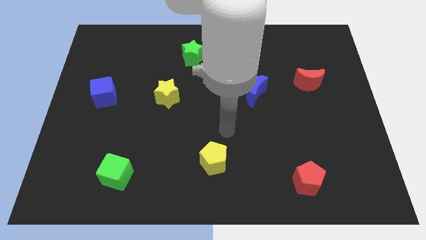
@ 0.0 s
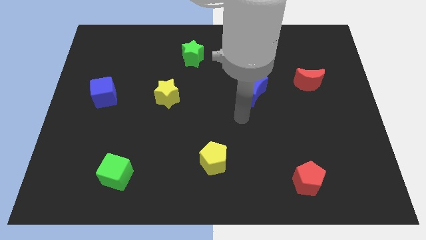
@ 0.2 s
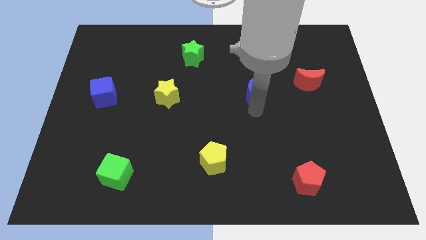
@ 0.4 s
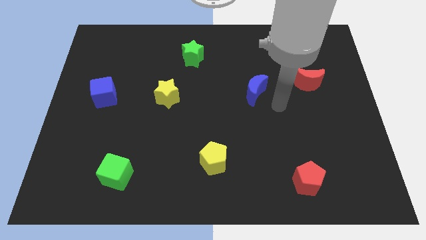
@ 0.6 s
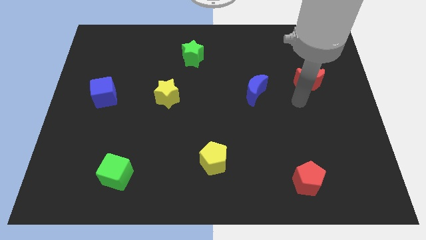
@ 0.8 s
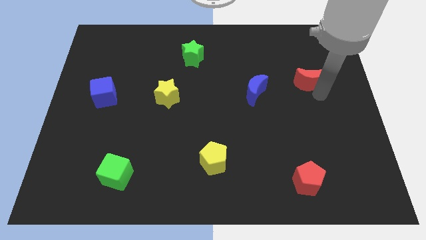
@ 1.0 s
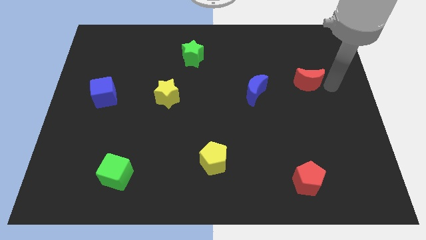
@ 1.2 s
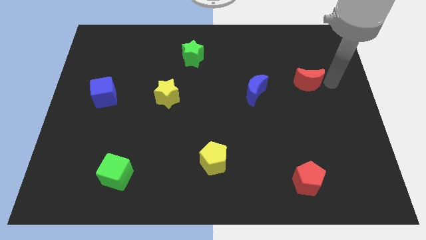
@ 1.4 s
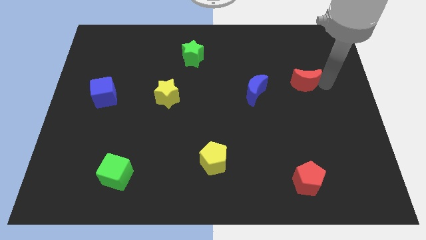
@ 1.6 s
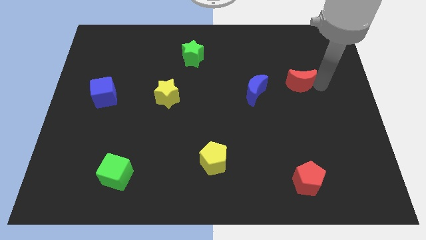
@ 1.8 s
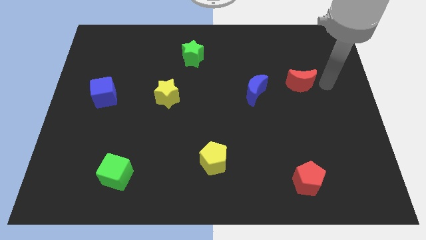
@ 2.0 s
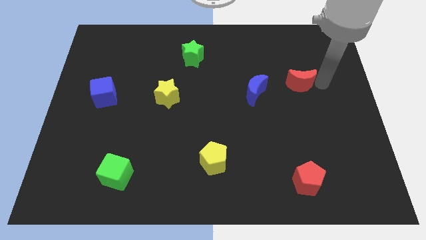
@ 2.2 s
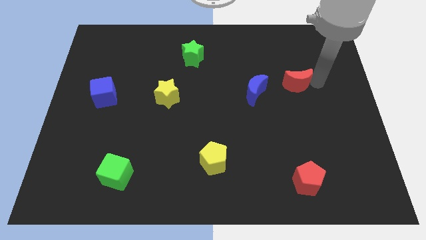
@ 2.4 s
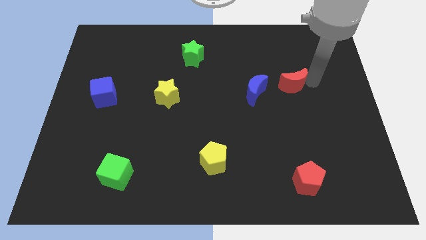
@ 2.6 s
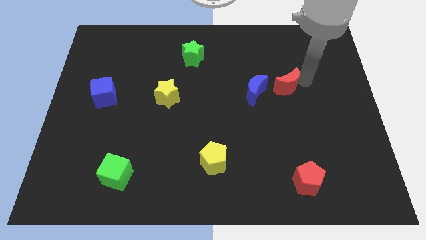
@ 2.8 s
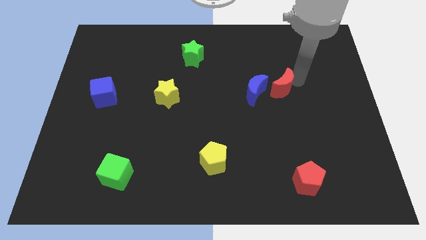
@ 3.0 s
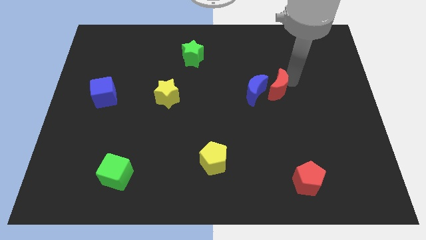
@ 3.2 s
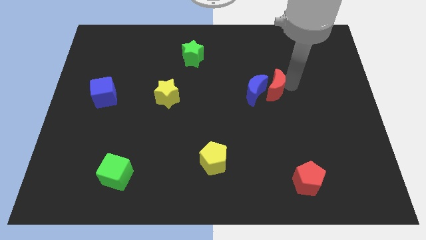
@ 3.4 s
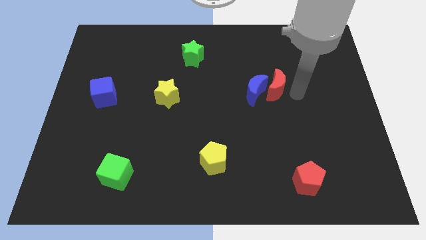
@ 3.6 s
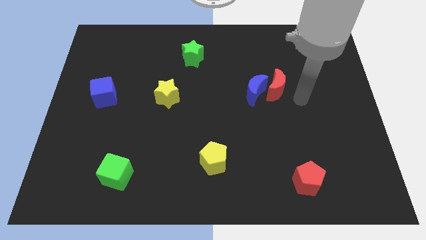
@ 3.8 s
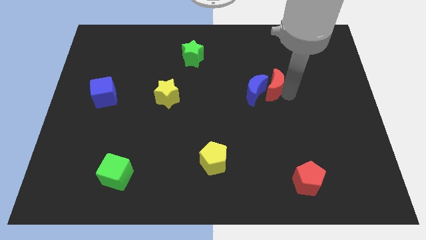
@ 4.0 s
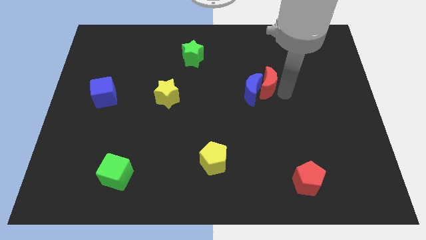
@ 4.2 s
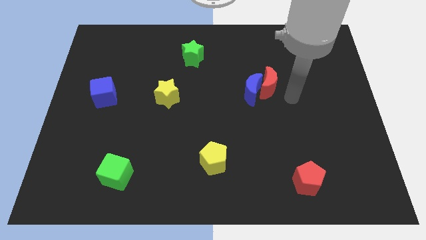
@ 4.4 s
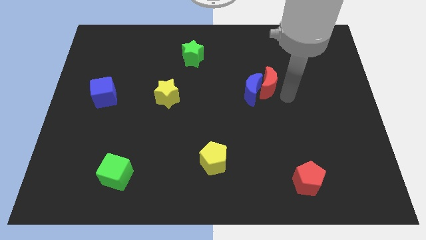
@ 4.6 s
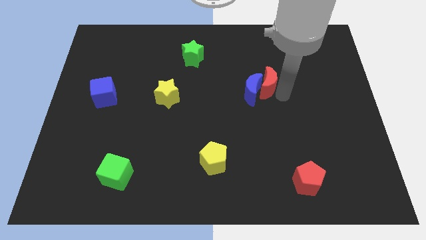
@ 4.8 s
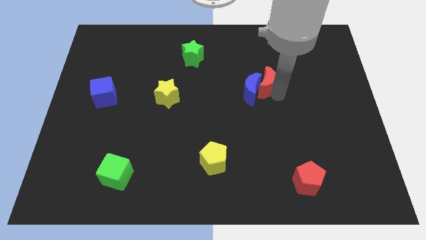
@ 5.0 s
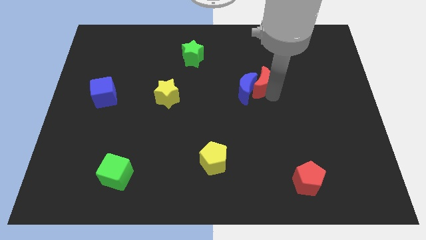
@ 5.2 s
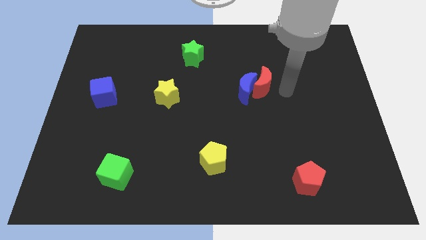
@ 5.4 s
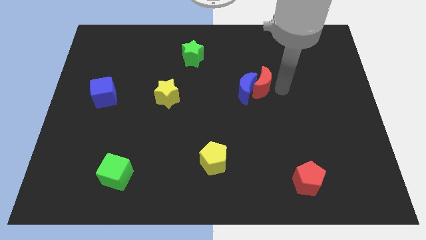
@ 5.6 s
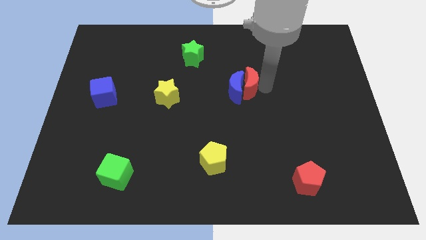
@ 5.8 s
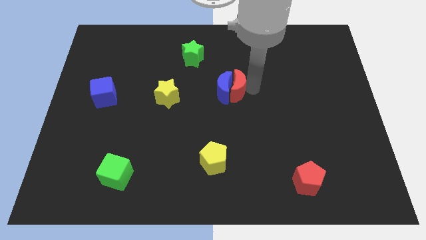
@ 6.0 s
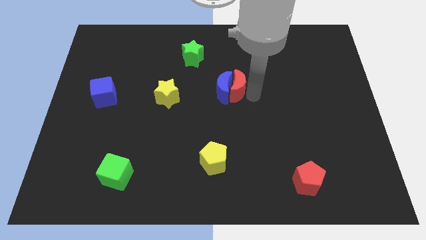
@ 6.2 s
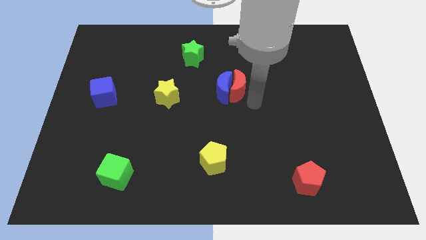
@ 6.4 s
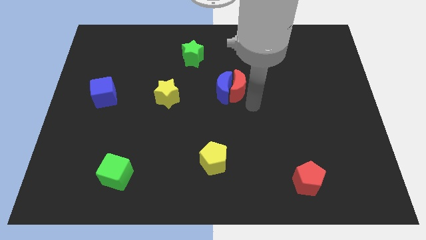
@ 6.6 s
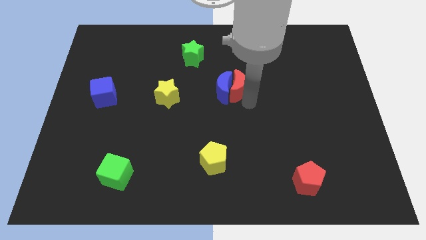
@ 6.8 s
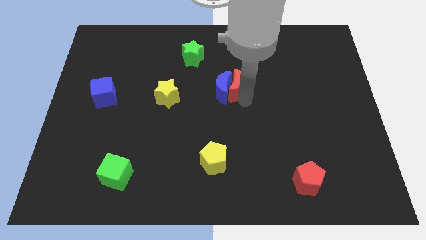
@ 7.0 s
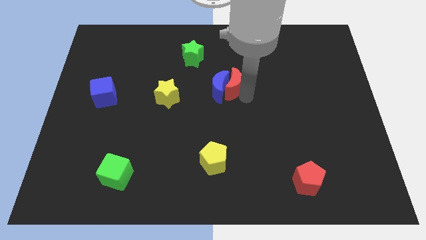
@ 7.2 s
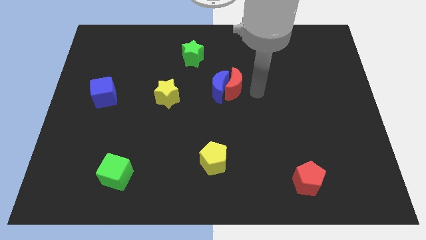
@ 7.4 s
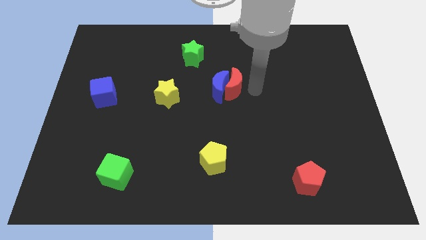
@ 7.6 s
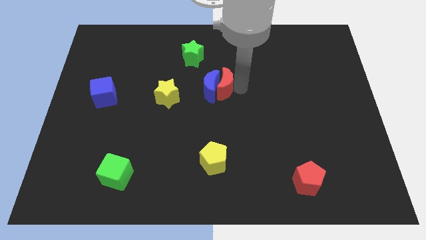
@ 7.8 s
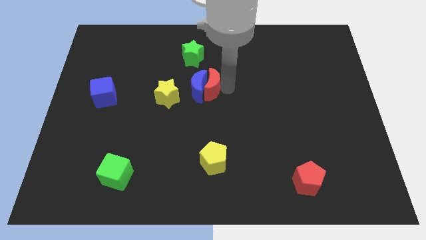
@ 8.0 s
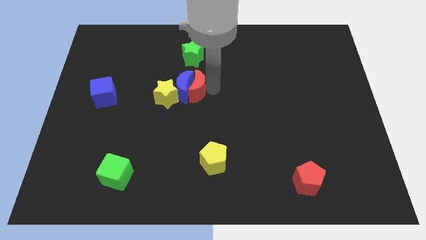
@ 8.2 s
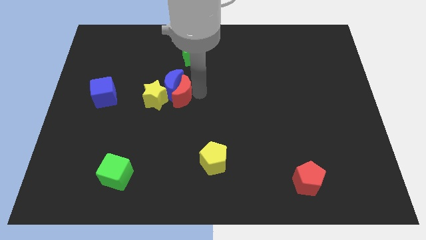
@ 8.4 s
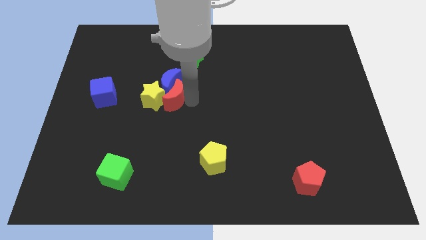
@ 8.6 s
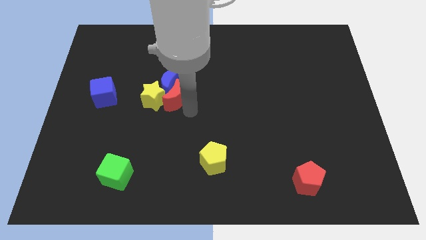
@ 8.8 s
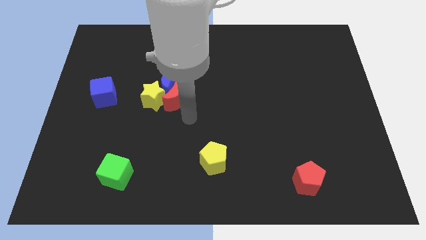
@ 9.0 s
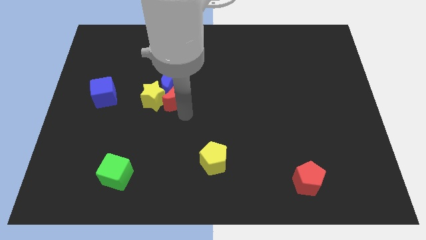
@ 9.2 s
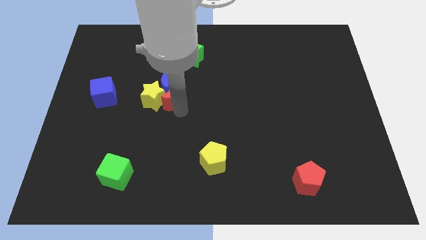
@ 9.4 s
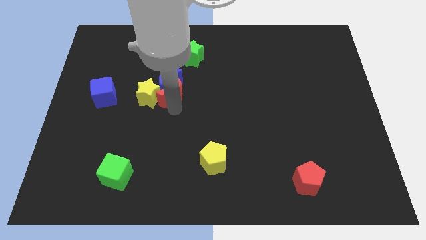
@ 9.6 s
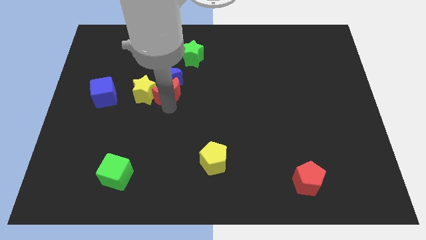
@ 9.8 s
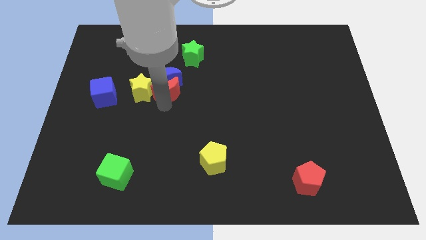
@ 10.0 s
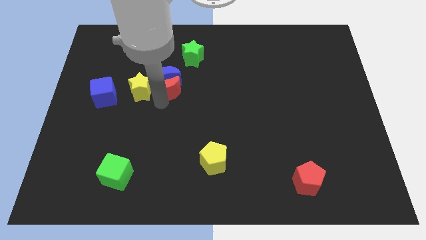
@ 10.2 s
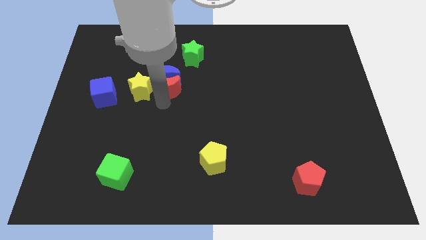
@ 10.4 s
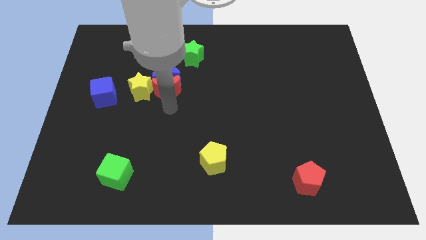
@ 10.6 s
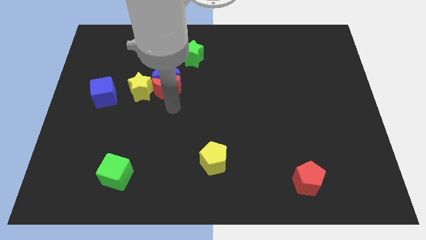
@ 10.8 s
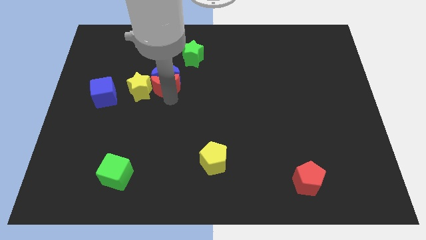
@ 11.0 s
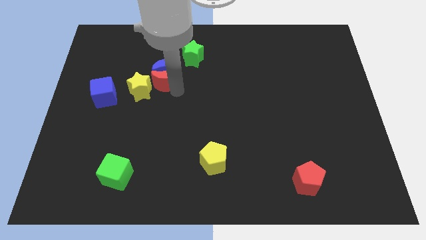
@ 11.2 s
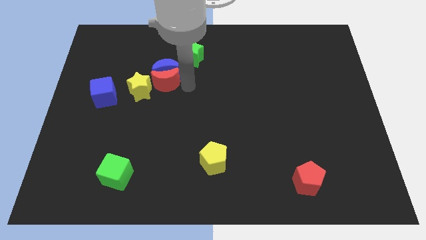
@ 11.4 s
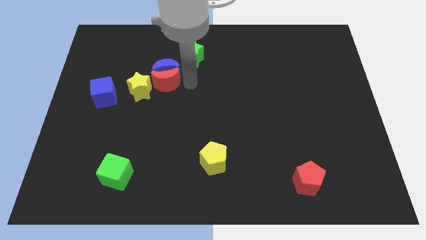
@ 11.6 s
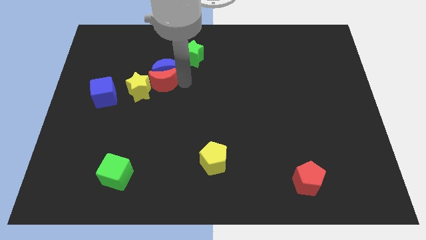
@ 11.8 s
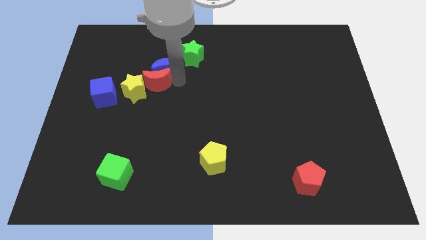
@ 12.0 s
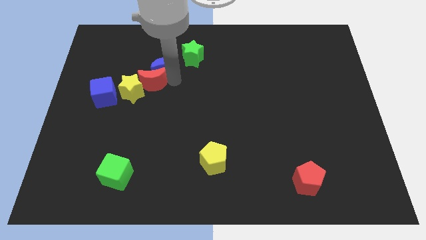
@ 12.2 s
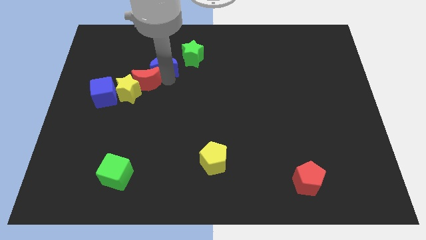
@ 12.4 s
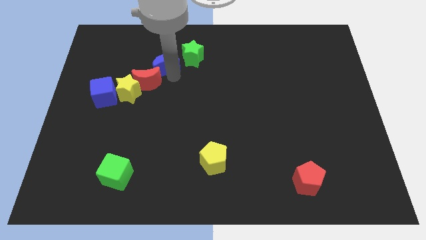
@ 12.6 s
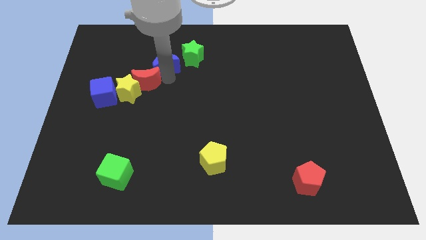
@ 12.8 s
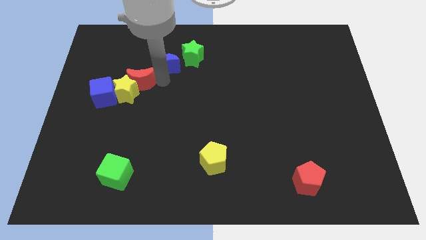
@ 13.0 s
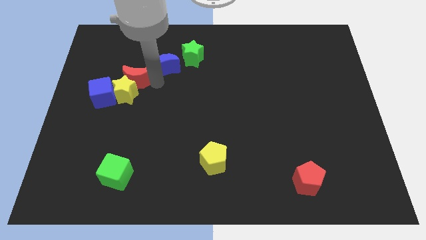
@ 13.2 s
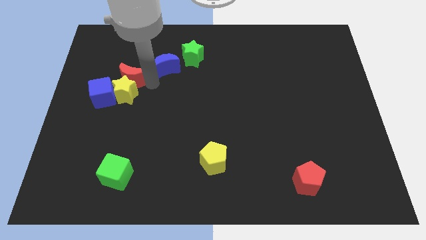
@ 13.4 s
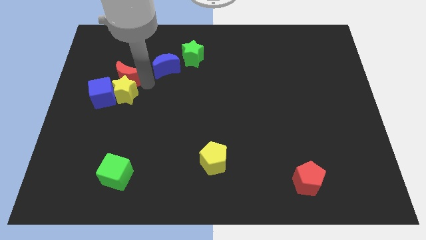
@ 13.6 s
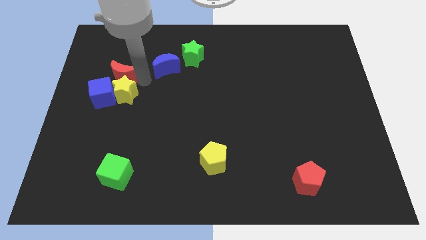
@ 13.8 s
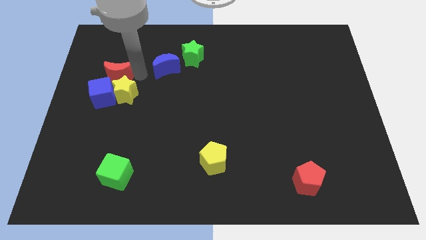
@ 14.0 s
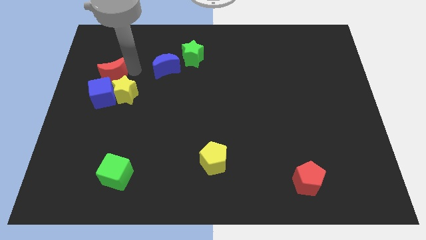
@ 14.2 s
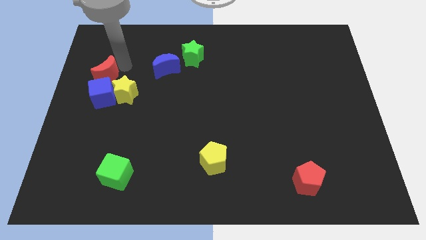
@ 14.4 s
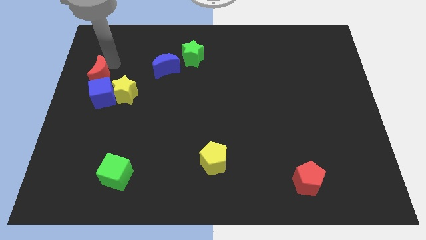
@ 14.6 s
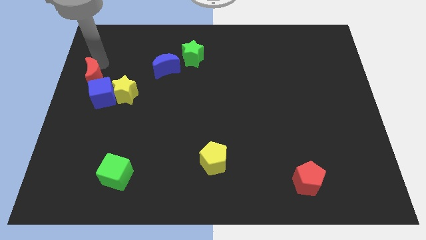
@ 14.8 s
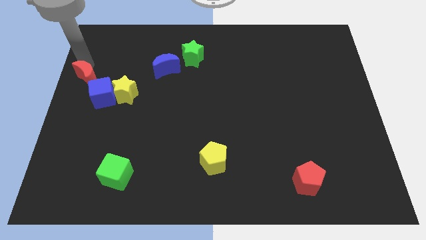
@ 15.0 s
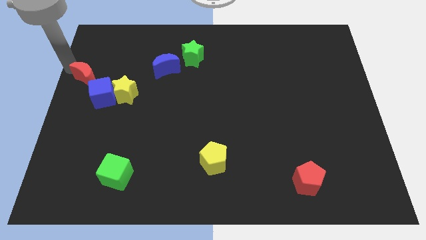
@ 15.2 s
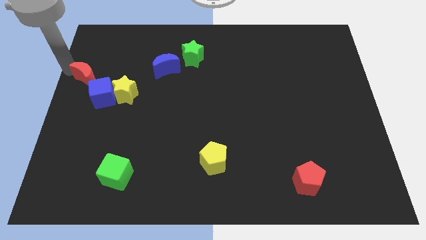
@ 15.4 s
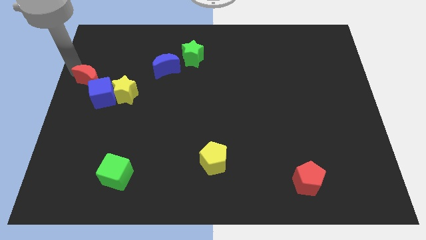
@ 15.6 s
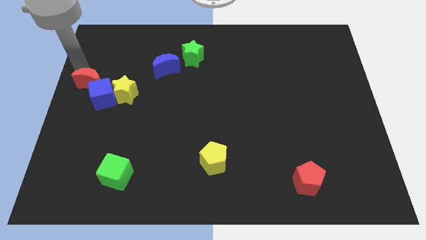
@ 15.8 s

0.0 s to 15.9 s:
slide the red moon next to the blue cube
